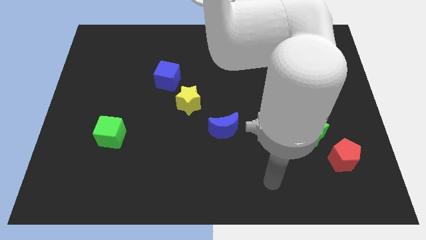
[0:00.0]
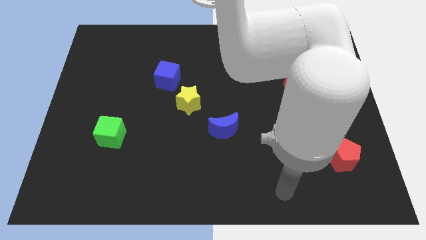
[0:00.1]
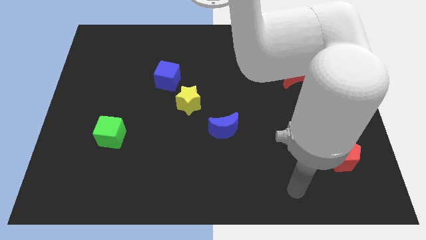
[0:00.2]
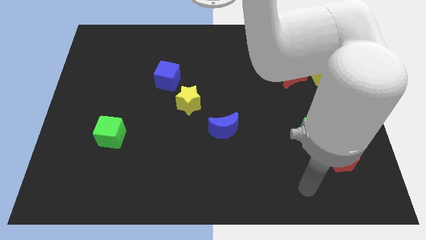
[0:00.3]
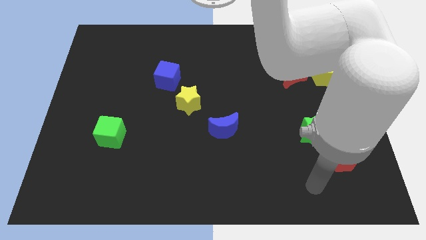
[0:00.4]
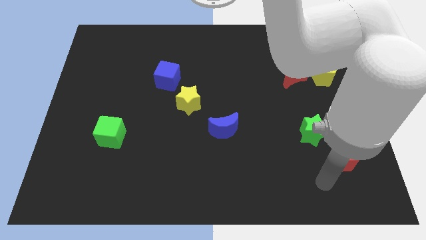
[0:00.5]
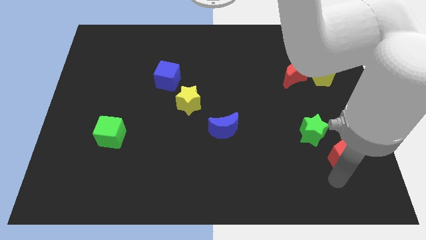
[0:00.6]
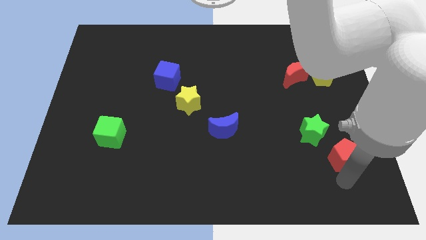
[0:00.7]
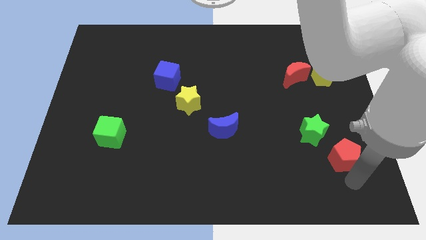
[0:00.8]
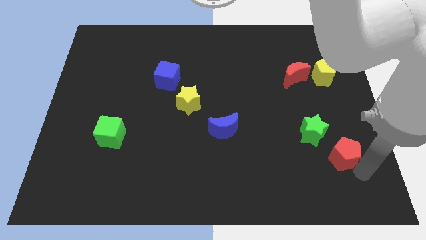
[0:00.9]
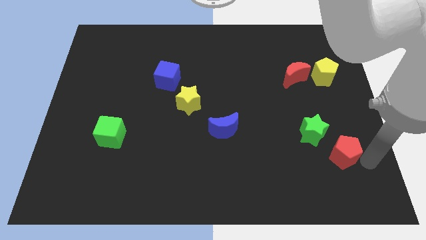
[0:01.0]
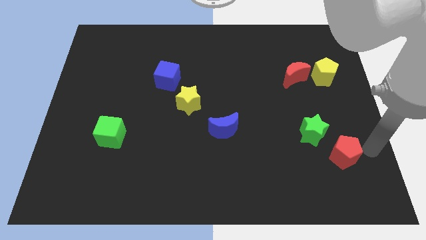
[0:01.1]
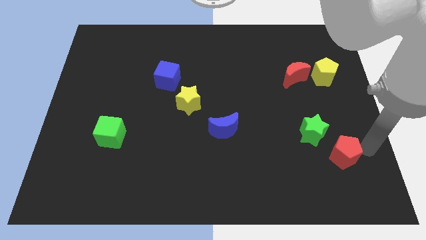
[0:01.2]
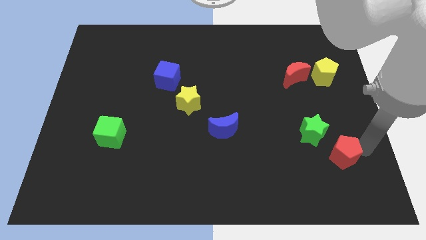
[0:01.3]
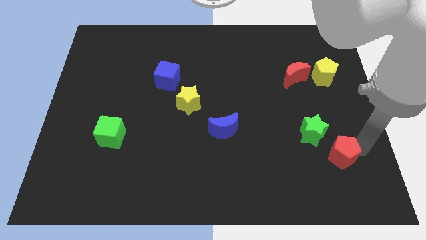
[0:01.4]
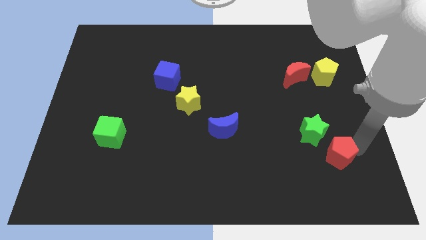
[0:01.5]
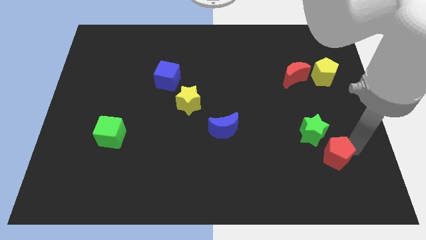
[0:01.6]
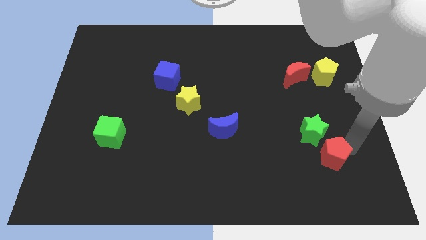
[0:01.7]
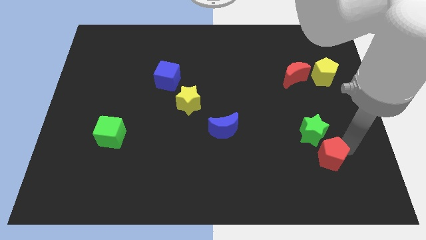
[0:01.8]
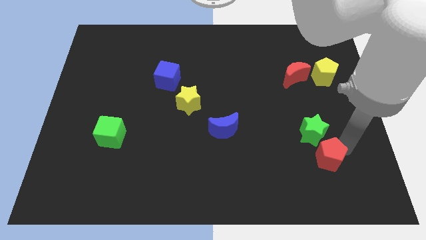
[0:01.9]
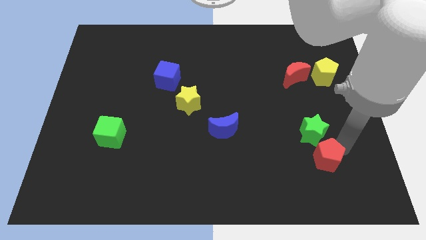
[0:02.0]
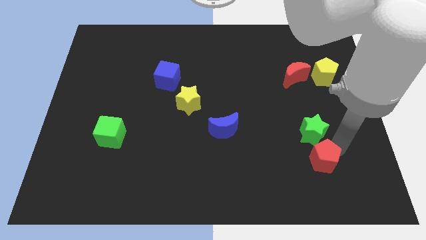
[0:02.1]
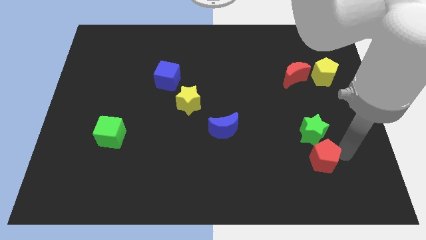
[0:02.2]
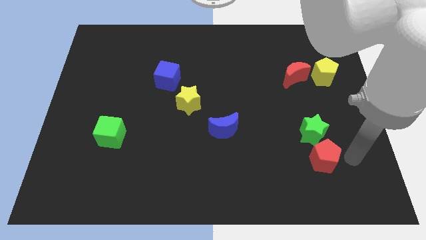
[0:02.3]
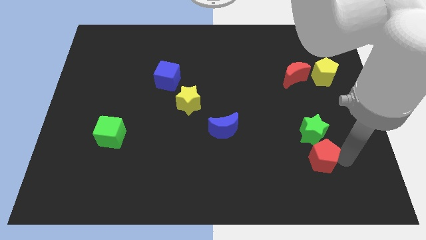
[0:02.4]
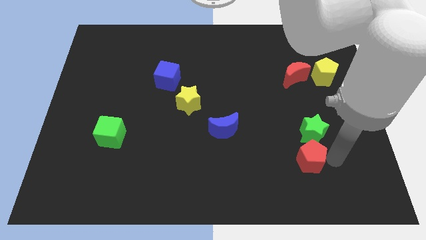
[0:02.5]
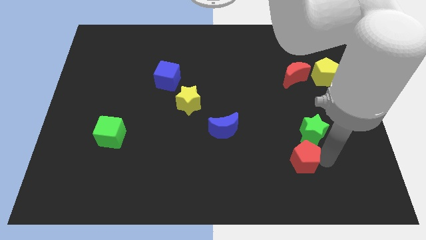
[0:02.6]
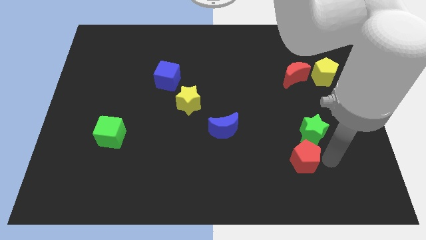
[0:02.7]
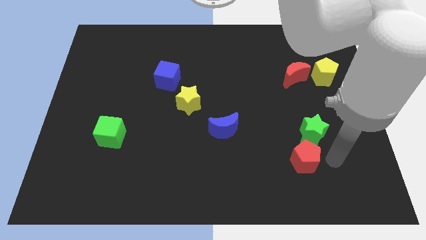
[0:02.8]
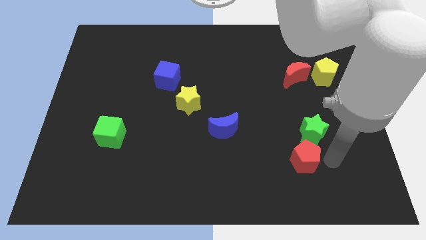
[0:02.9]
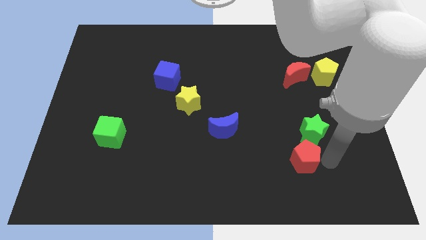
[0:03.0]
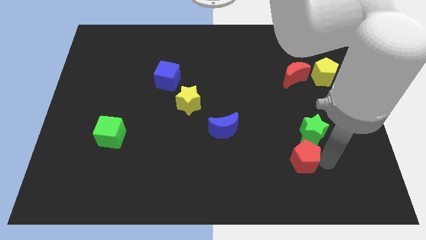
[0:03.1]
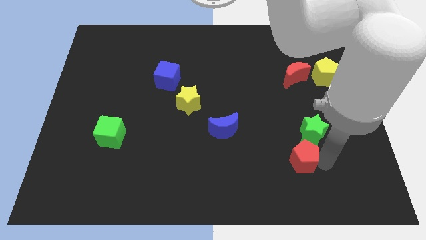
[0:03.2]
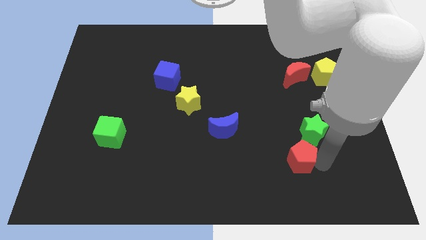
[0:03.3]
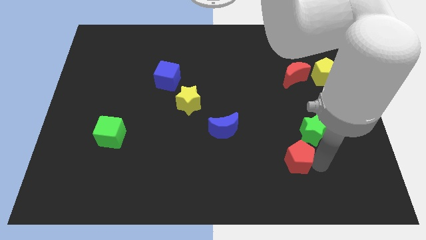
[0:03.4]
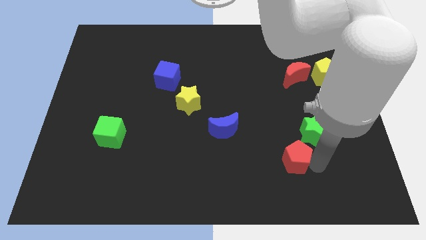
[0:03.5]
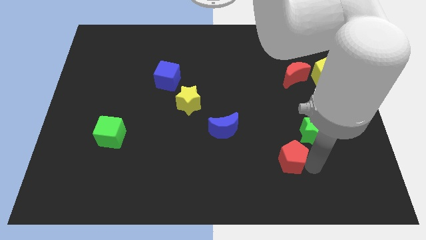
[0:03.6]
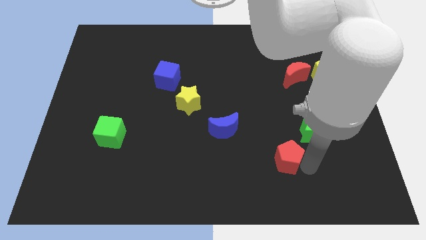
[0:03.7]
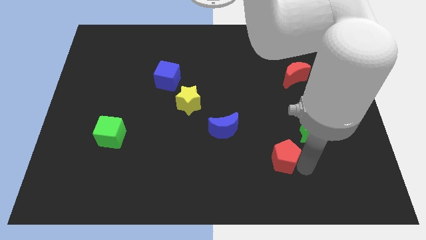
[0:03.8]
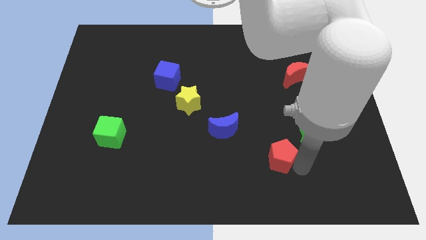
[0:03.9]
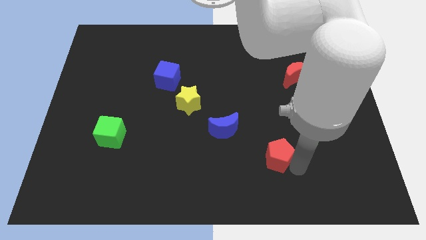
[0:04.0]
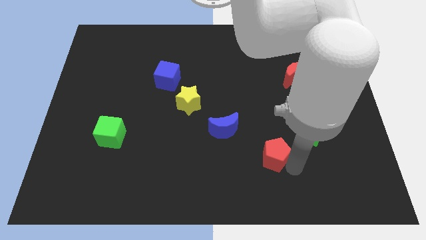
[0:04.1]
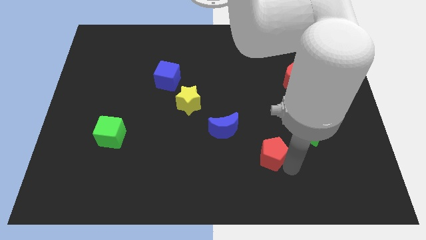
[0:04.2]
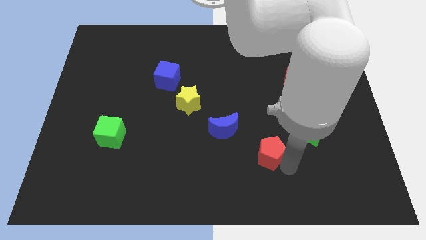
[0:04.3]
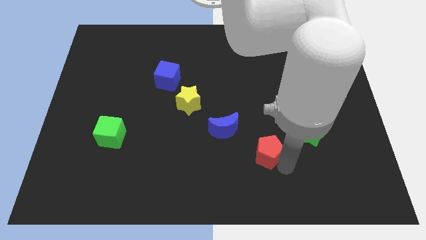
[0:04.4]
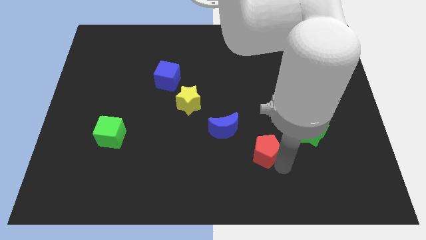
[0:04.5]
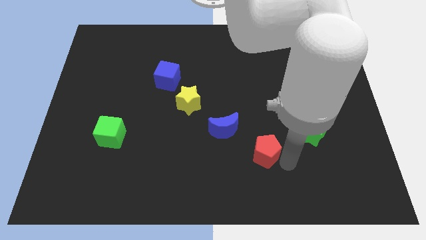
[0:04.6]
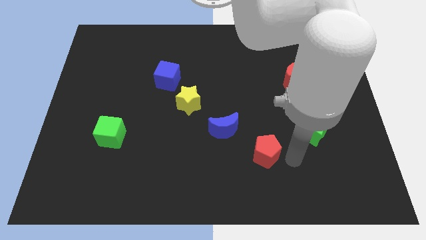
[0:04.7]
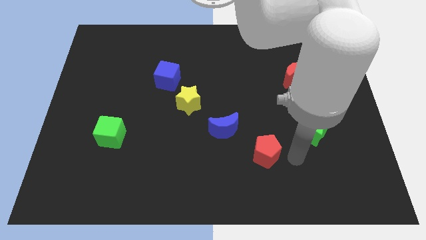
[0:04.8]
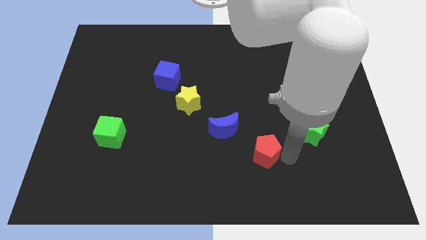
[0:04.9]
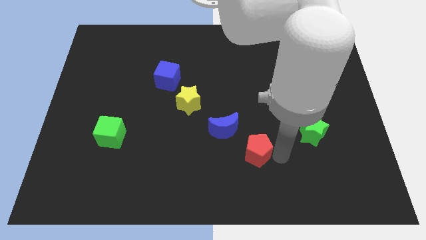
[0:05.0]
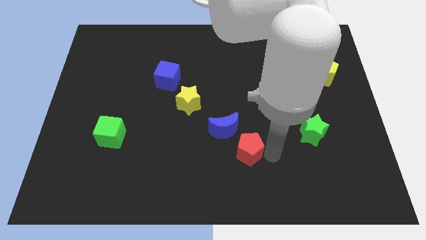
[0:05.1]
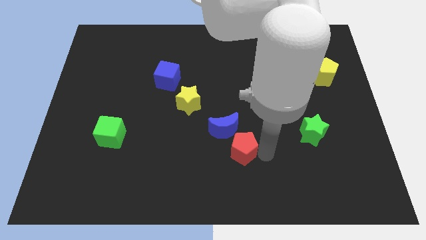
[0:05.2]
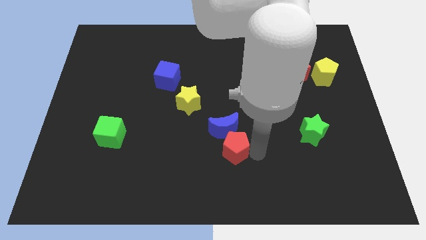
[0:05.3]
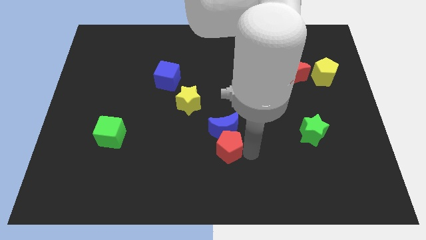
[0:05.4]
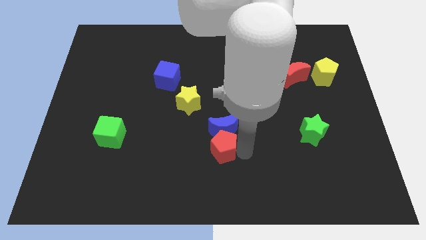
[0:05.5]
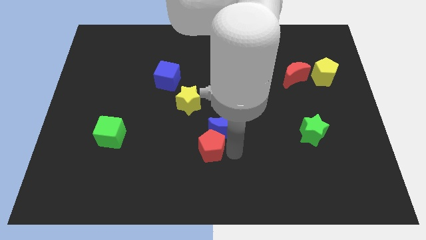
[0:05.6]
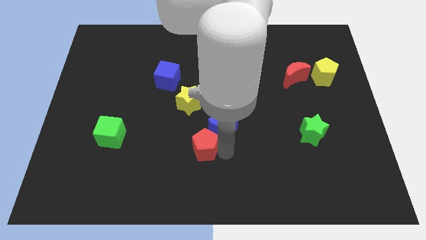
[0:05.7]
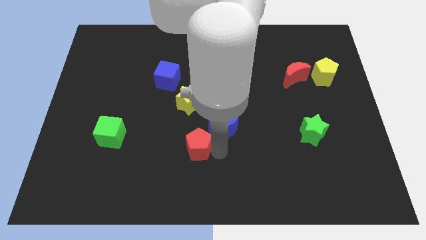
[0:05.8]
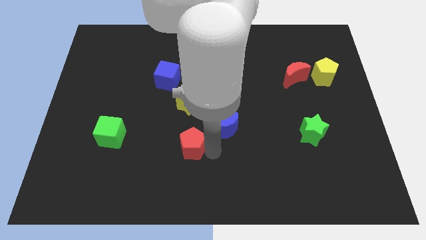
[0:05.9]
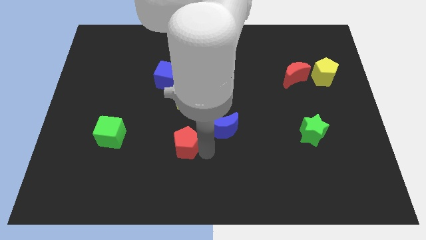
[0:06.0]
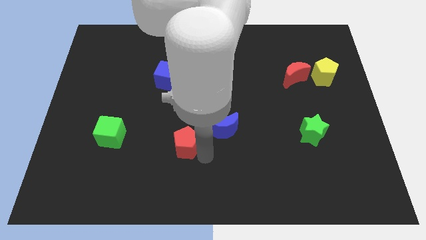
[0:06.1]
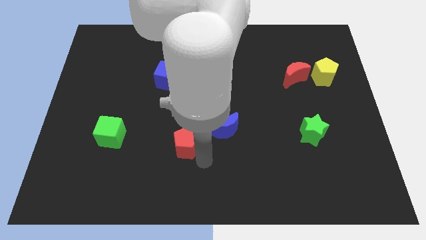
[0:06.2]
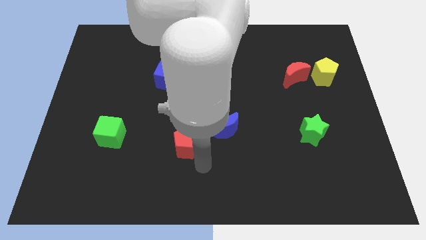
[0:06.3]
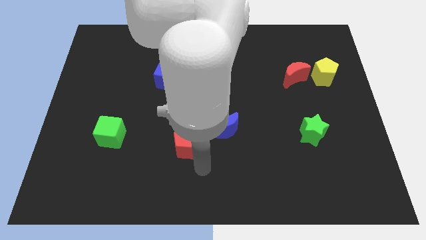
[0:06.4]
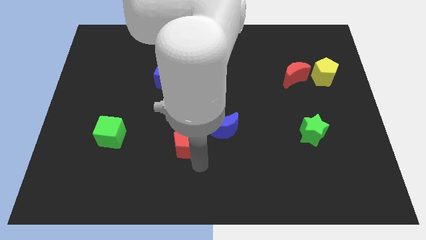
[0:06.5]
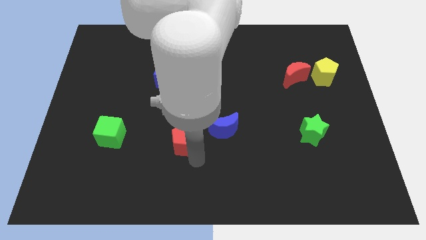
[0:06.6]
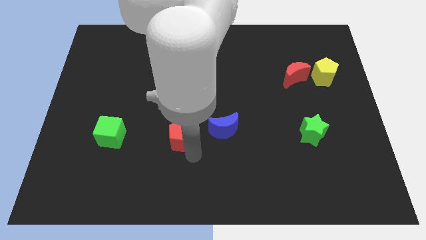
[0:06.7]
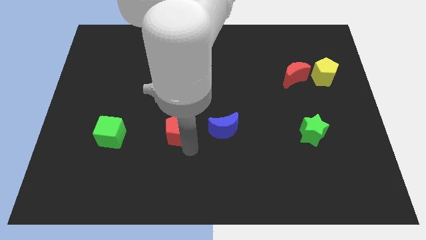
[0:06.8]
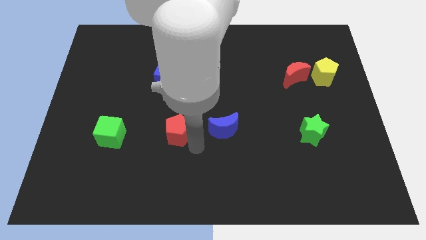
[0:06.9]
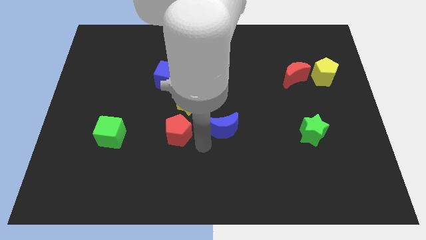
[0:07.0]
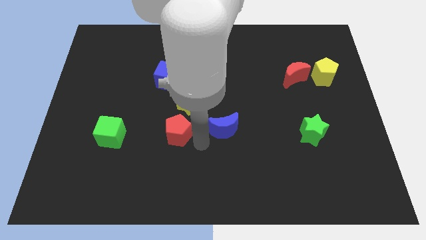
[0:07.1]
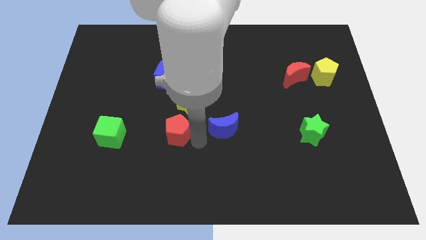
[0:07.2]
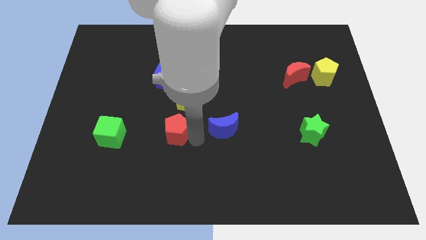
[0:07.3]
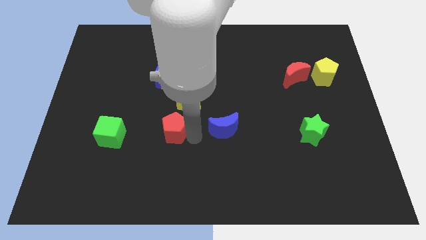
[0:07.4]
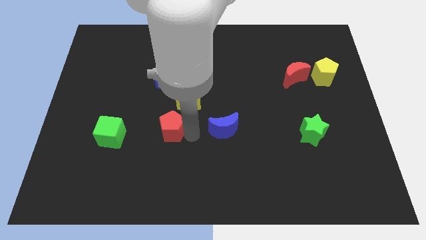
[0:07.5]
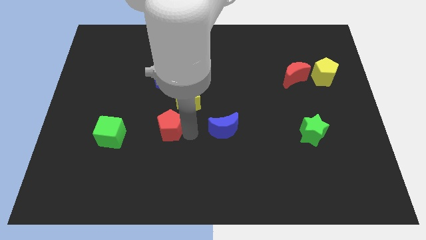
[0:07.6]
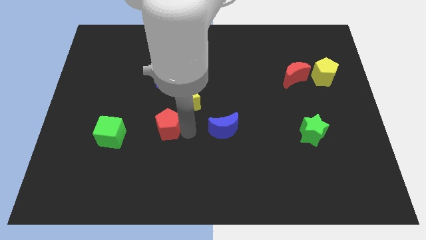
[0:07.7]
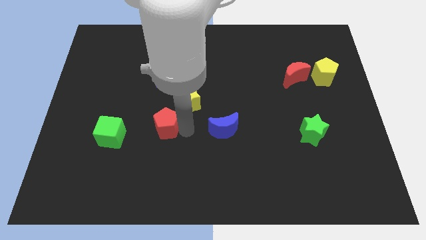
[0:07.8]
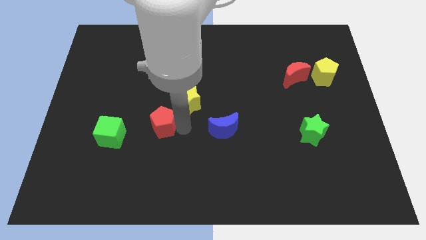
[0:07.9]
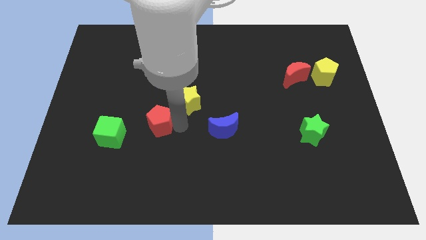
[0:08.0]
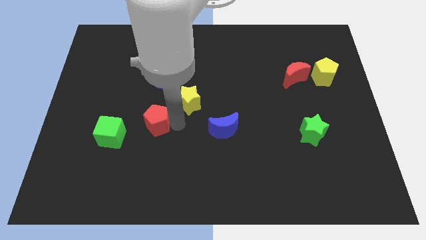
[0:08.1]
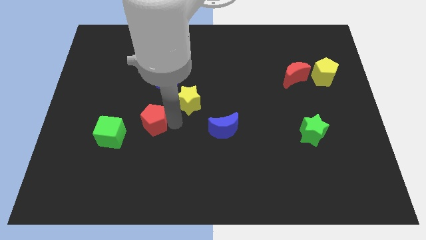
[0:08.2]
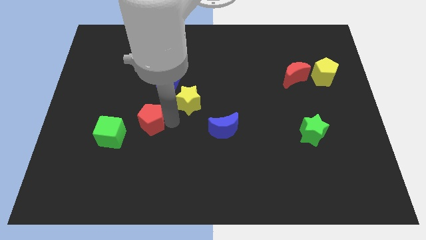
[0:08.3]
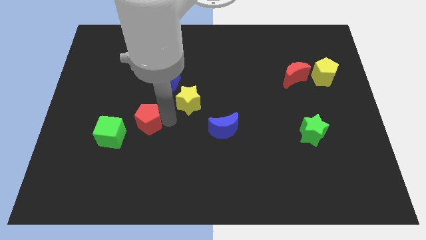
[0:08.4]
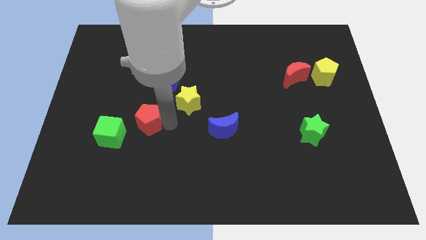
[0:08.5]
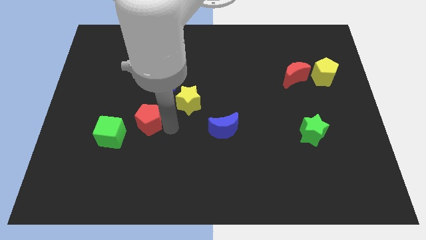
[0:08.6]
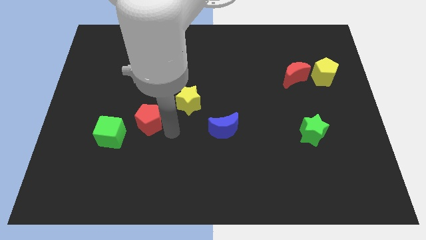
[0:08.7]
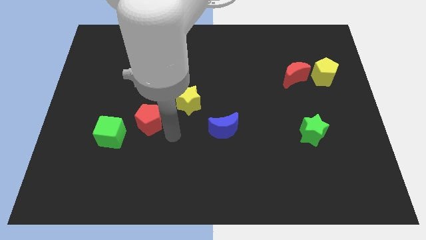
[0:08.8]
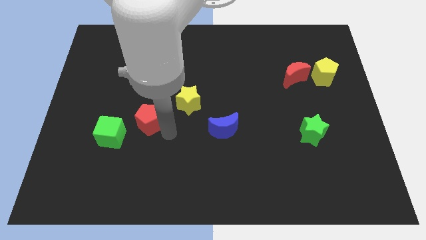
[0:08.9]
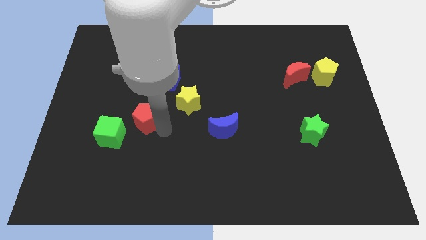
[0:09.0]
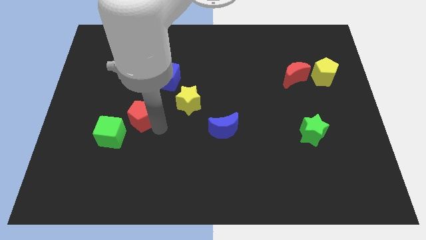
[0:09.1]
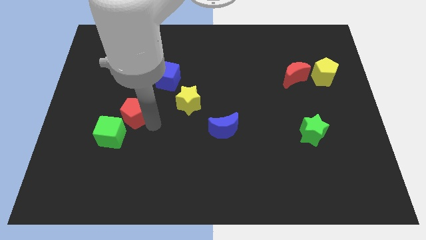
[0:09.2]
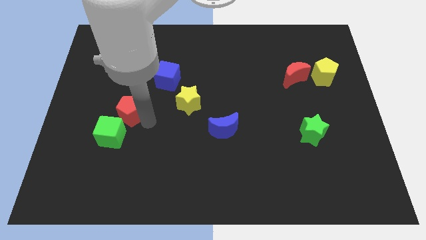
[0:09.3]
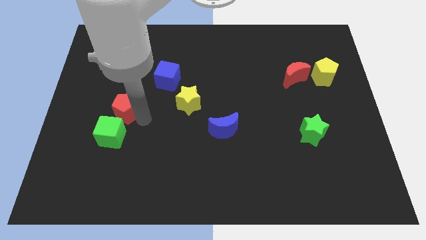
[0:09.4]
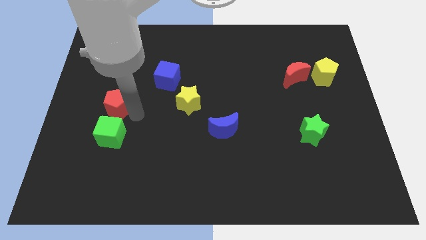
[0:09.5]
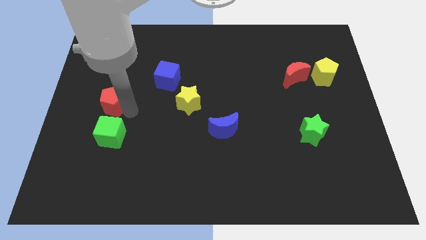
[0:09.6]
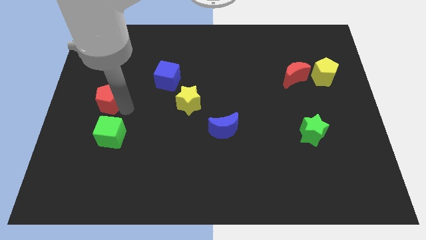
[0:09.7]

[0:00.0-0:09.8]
put the red pentagon to the left side of the board
